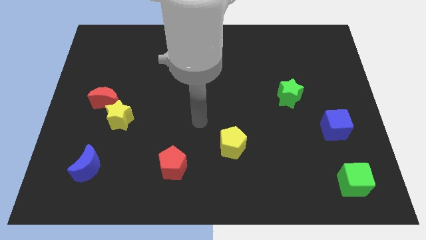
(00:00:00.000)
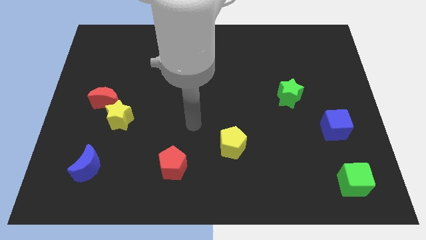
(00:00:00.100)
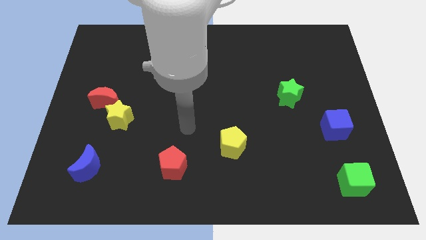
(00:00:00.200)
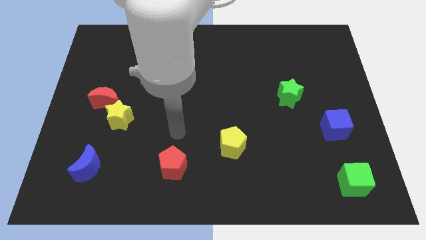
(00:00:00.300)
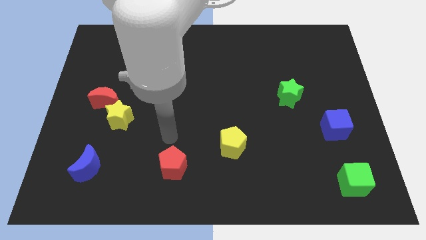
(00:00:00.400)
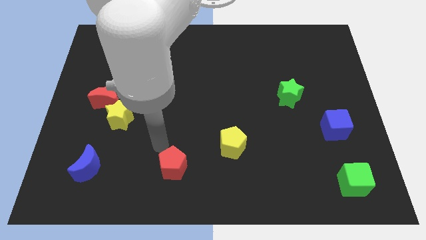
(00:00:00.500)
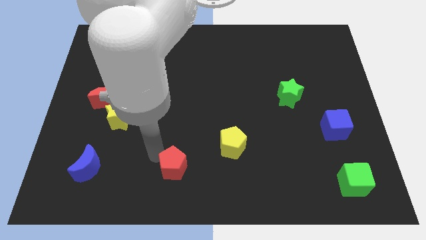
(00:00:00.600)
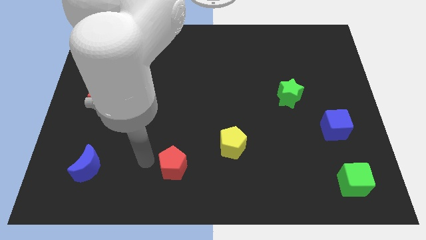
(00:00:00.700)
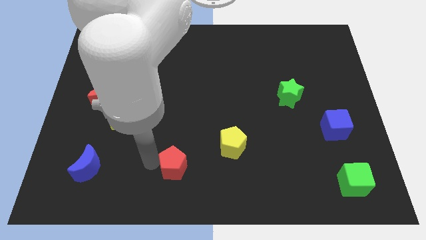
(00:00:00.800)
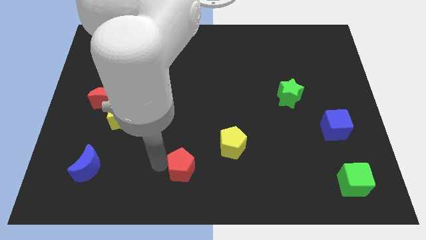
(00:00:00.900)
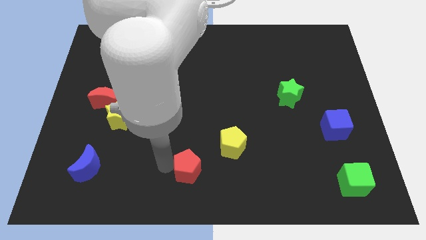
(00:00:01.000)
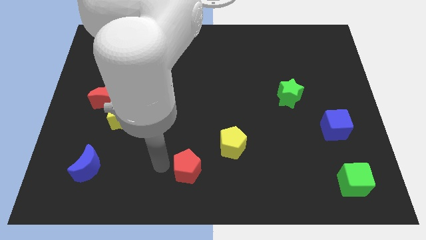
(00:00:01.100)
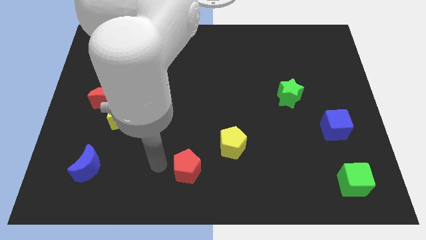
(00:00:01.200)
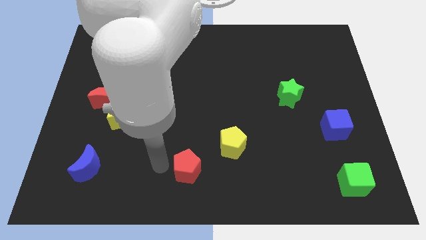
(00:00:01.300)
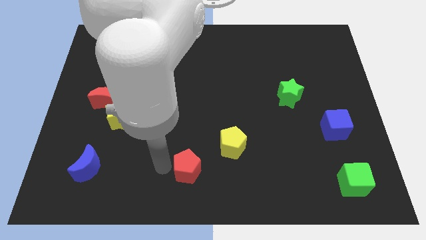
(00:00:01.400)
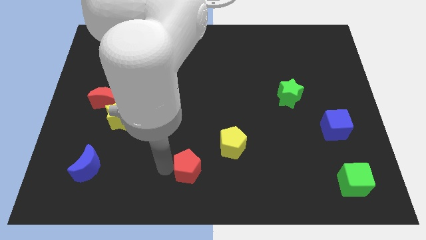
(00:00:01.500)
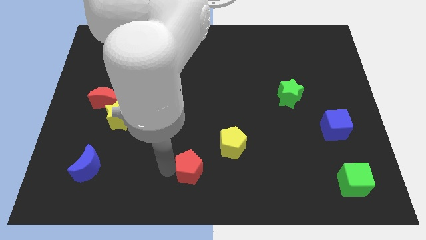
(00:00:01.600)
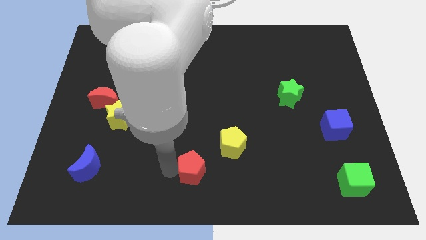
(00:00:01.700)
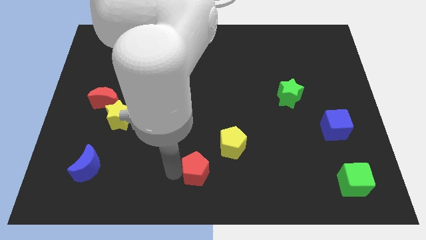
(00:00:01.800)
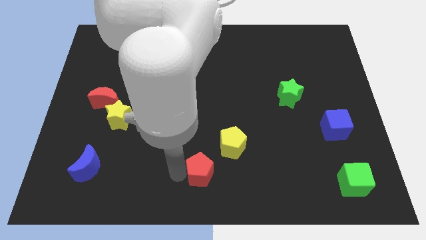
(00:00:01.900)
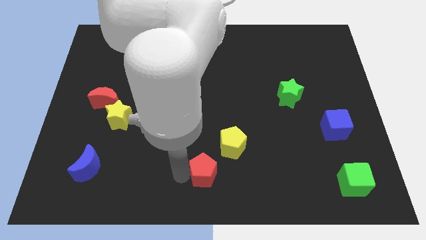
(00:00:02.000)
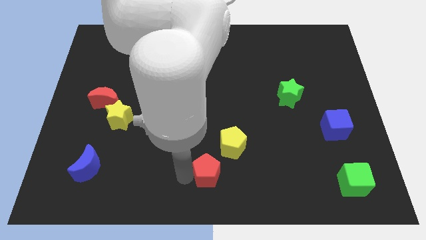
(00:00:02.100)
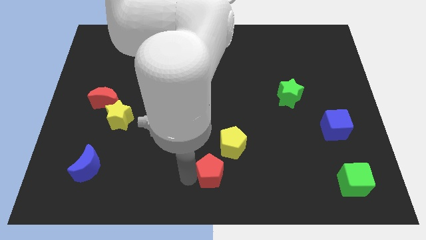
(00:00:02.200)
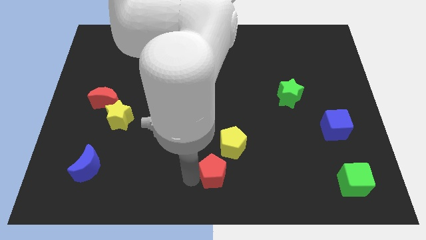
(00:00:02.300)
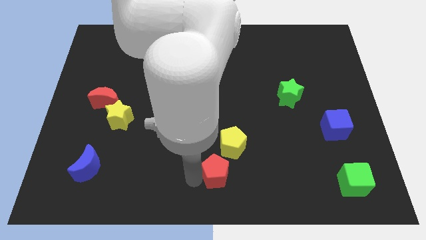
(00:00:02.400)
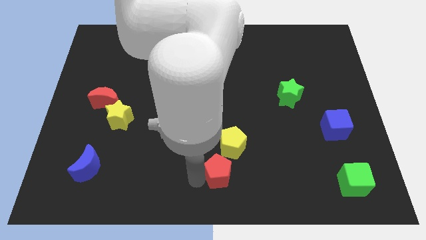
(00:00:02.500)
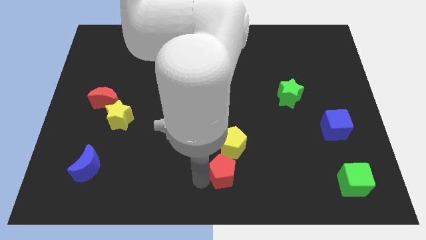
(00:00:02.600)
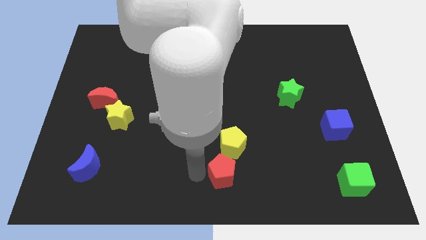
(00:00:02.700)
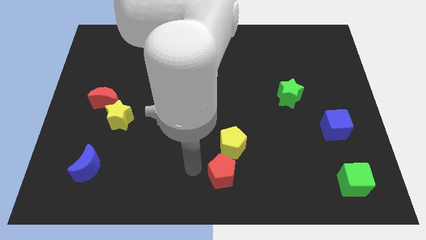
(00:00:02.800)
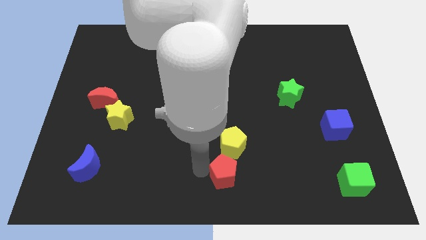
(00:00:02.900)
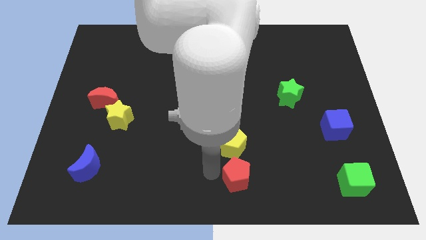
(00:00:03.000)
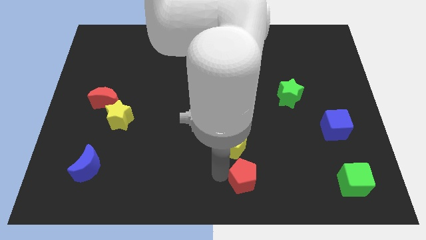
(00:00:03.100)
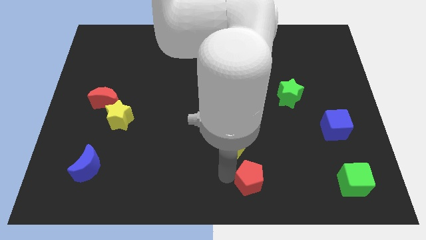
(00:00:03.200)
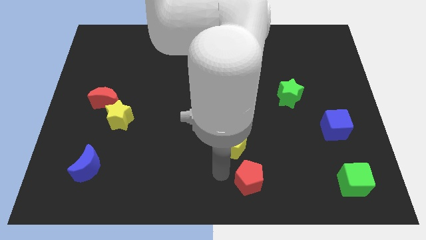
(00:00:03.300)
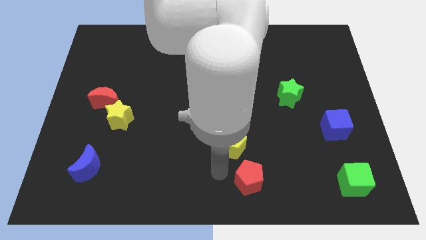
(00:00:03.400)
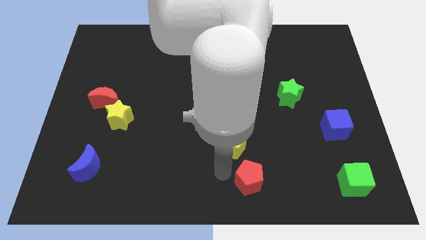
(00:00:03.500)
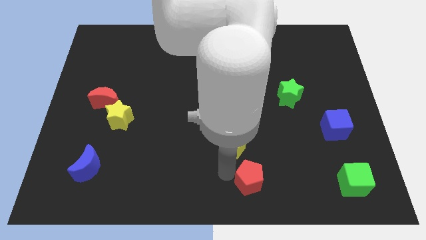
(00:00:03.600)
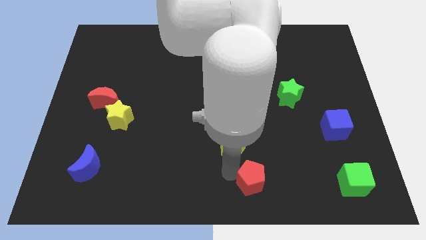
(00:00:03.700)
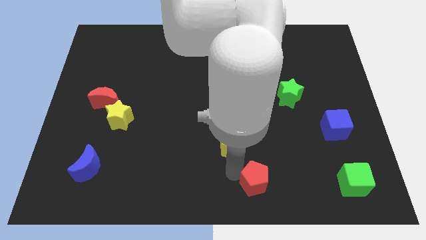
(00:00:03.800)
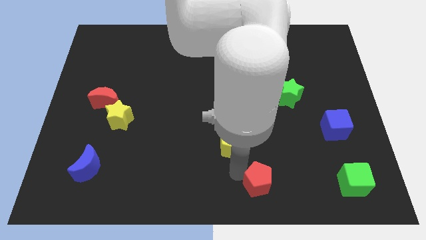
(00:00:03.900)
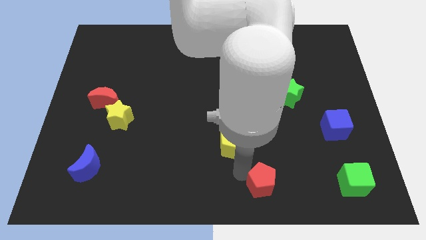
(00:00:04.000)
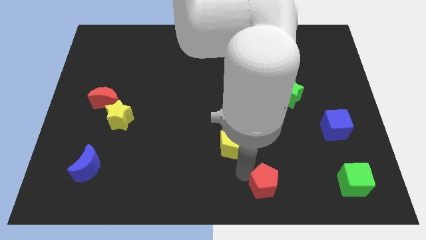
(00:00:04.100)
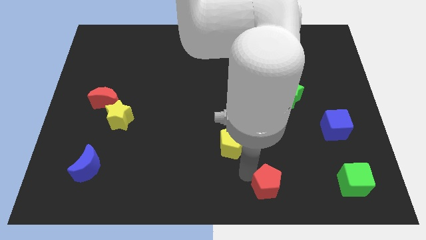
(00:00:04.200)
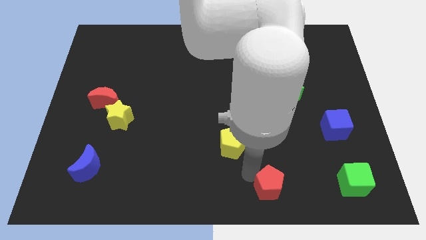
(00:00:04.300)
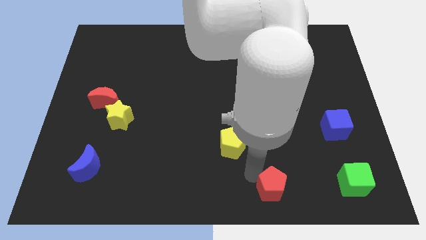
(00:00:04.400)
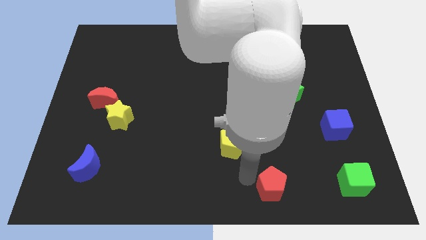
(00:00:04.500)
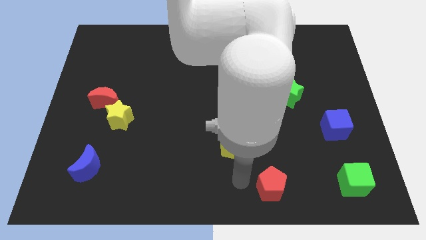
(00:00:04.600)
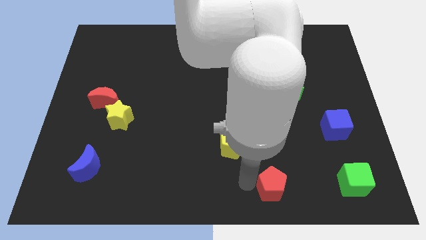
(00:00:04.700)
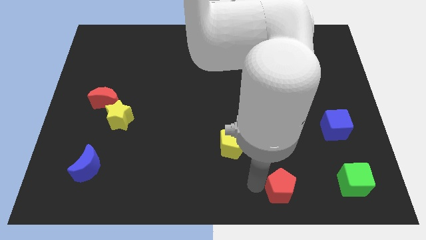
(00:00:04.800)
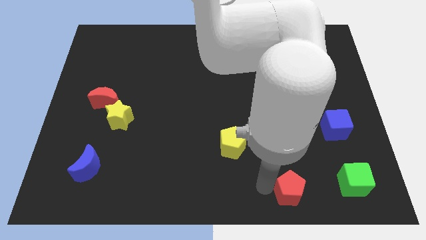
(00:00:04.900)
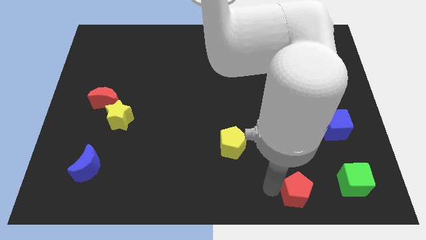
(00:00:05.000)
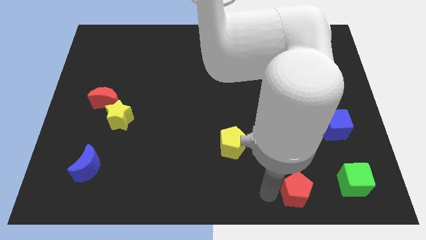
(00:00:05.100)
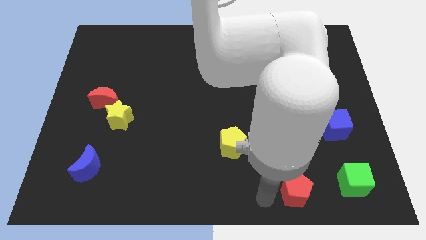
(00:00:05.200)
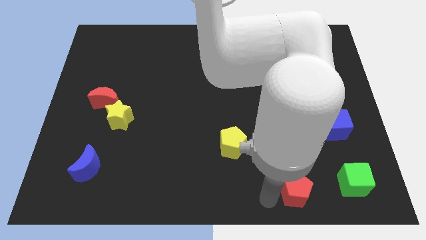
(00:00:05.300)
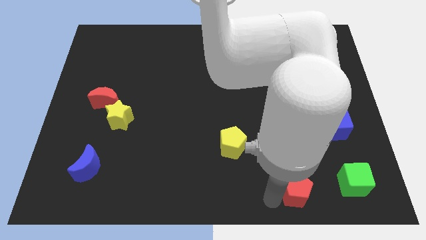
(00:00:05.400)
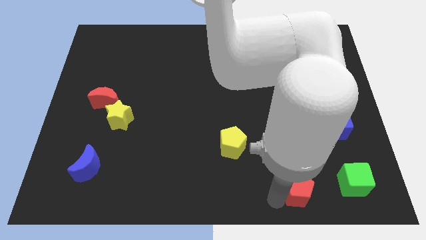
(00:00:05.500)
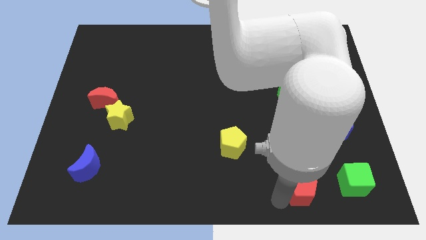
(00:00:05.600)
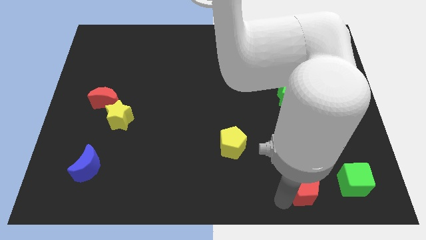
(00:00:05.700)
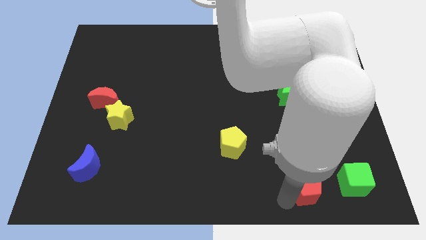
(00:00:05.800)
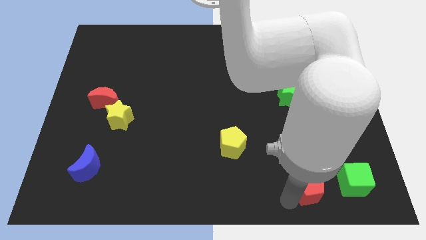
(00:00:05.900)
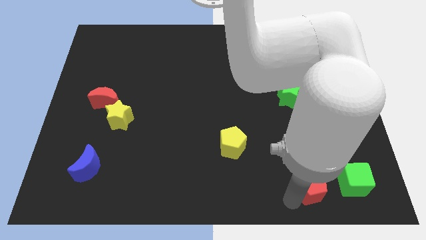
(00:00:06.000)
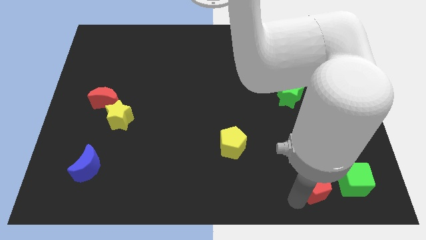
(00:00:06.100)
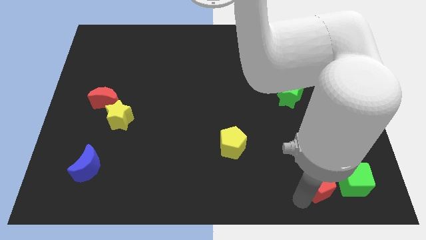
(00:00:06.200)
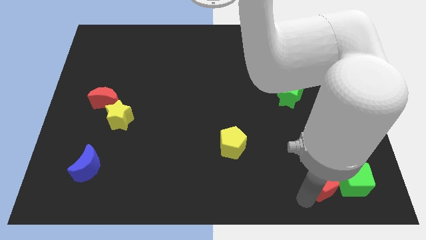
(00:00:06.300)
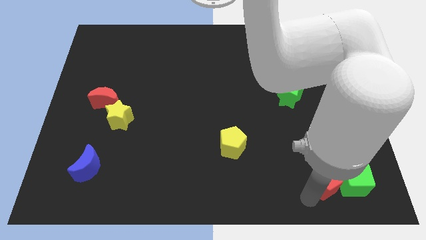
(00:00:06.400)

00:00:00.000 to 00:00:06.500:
slide the red pentagon to the green cube

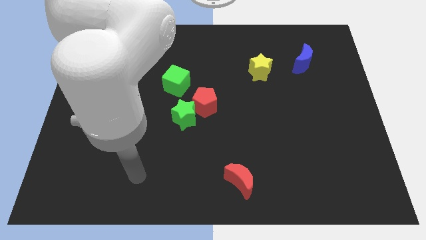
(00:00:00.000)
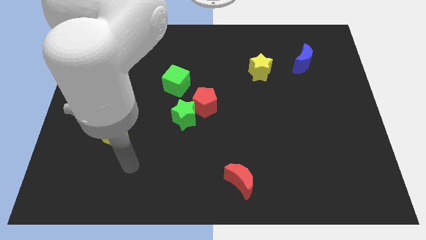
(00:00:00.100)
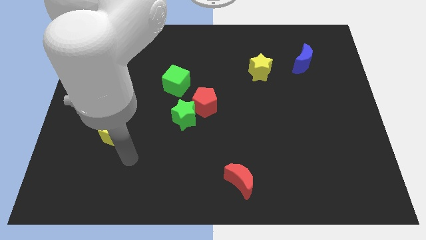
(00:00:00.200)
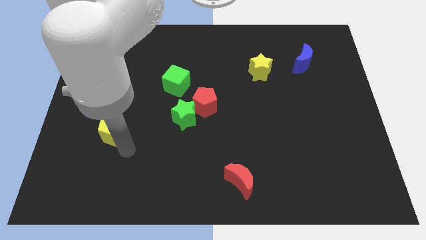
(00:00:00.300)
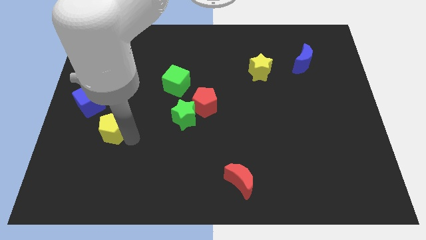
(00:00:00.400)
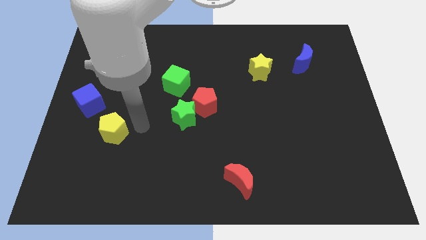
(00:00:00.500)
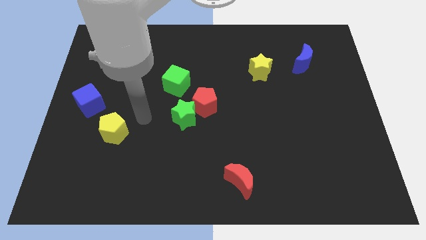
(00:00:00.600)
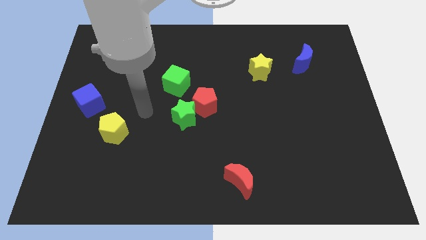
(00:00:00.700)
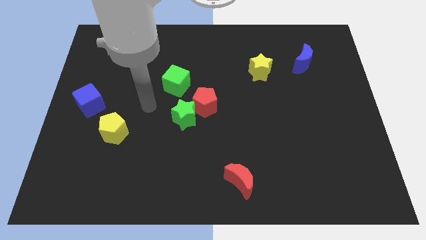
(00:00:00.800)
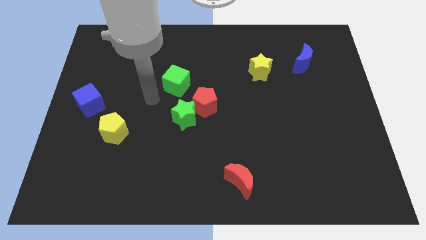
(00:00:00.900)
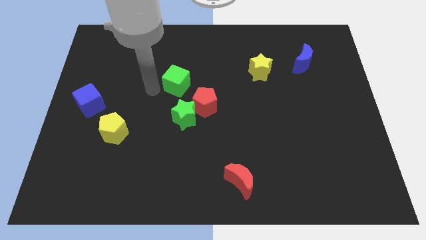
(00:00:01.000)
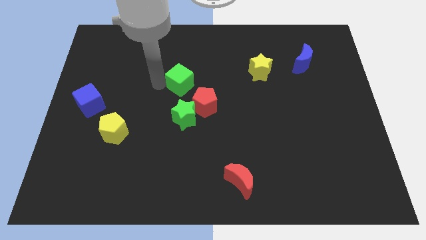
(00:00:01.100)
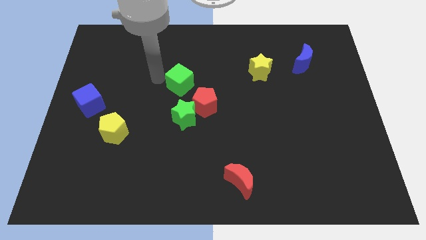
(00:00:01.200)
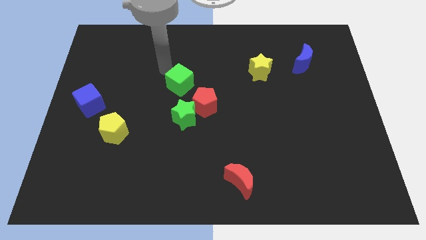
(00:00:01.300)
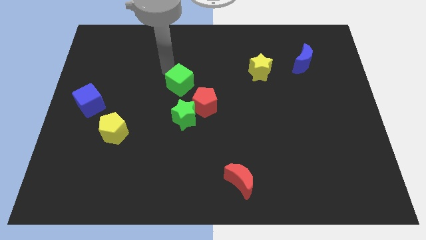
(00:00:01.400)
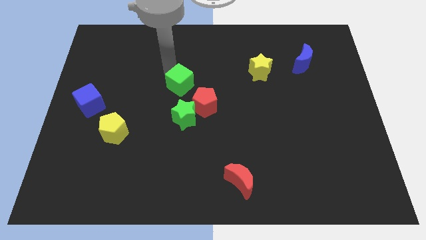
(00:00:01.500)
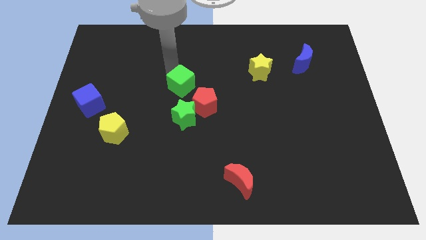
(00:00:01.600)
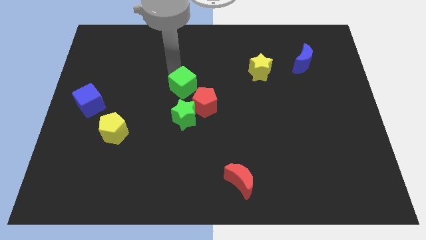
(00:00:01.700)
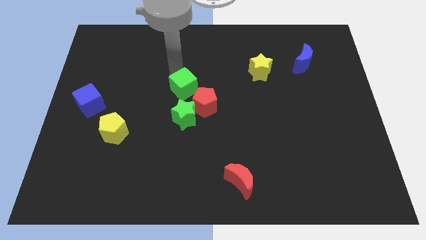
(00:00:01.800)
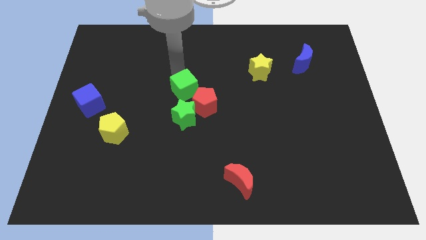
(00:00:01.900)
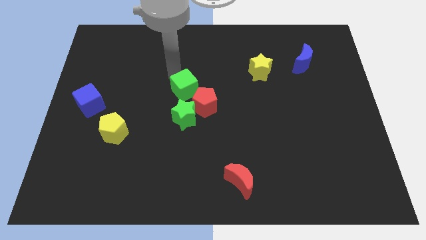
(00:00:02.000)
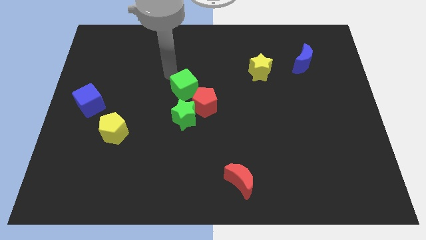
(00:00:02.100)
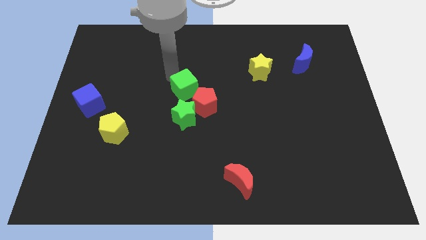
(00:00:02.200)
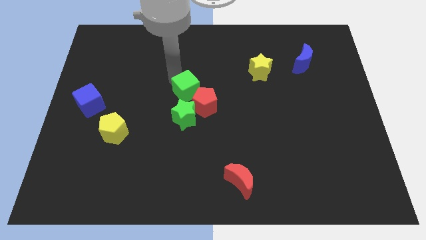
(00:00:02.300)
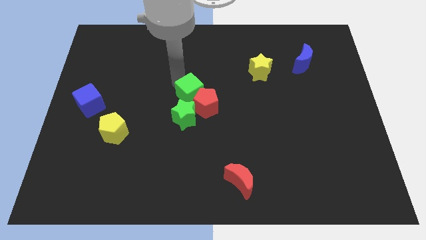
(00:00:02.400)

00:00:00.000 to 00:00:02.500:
move the green cube next to the red pentagon
